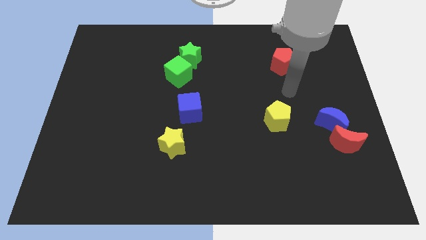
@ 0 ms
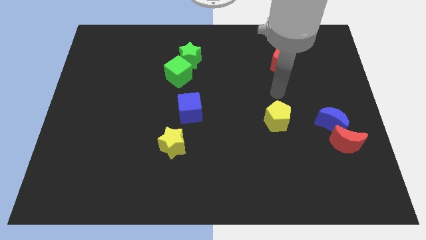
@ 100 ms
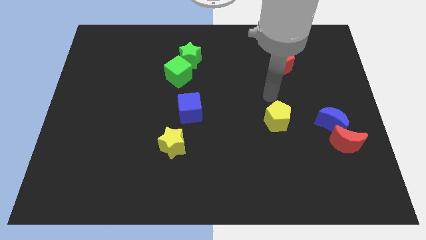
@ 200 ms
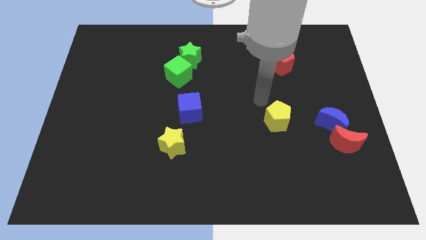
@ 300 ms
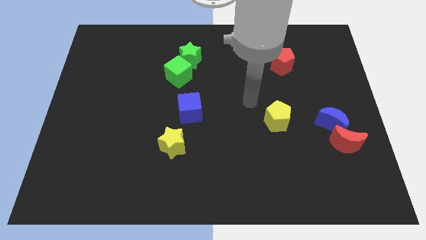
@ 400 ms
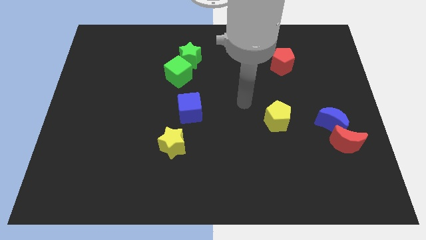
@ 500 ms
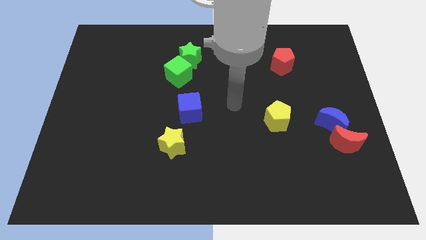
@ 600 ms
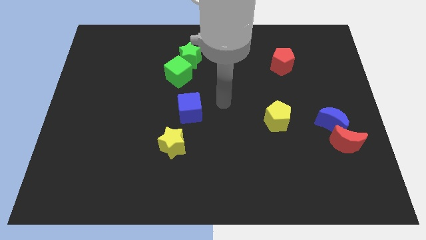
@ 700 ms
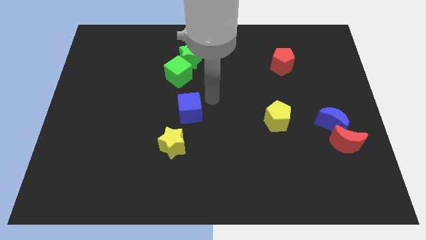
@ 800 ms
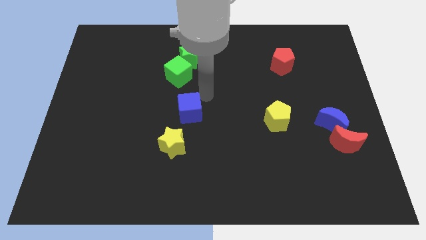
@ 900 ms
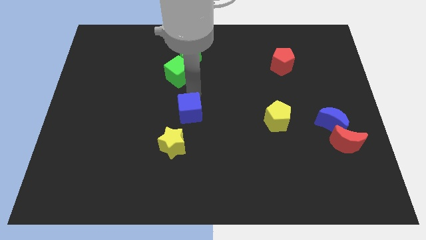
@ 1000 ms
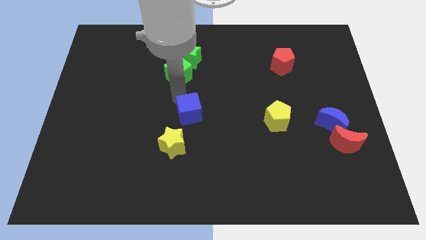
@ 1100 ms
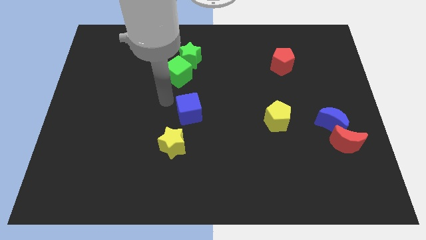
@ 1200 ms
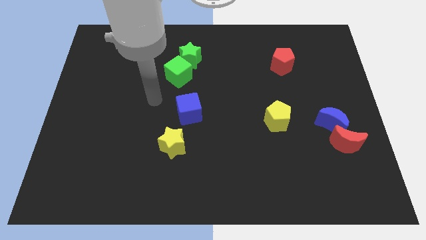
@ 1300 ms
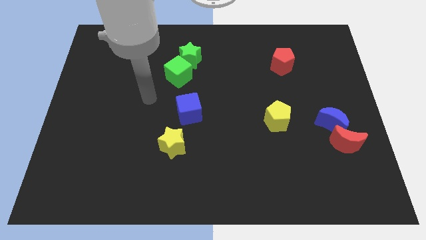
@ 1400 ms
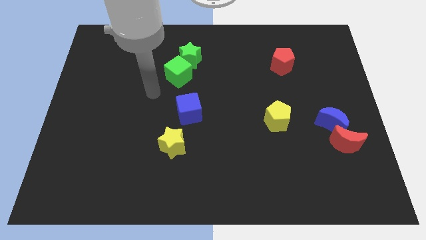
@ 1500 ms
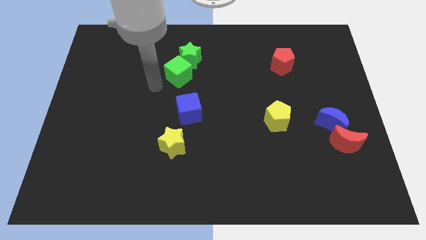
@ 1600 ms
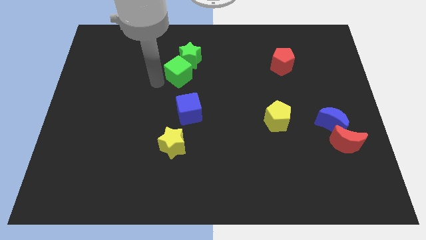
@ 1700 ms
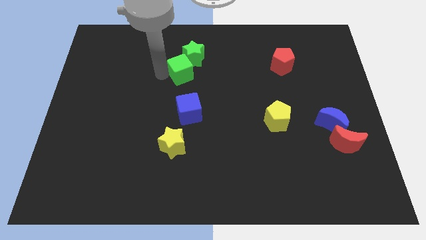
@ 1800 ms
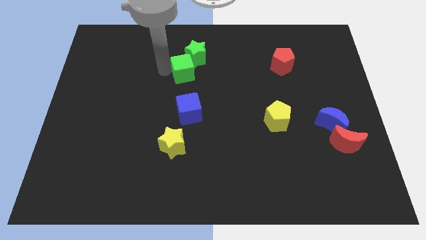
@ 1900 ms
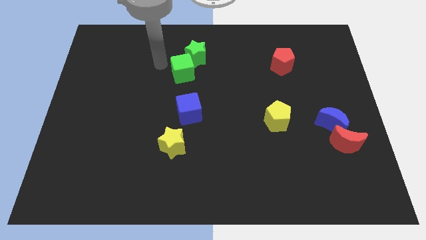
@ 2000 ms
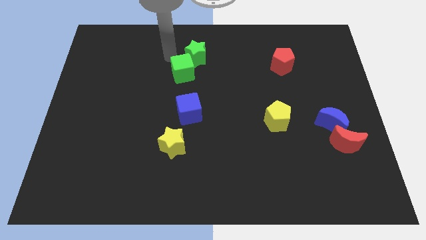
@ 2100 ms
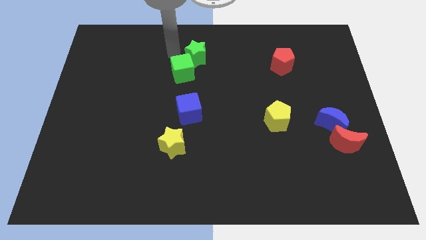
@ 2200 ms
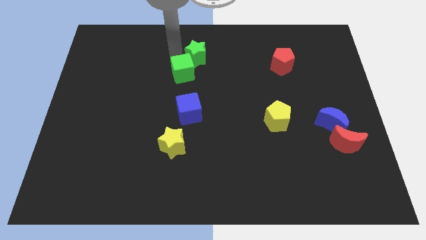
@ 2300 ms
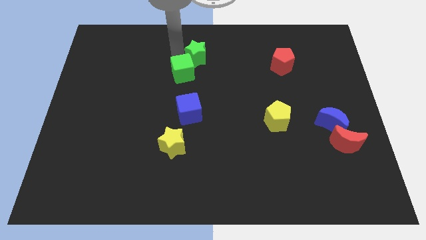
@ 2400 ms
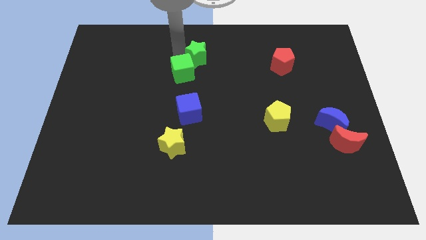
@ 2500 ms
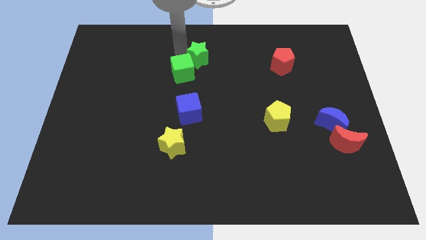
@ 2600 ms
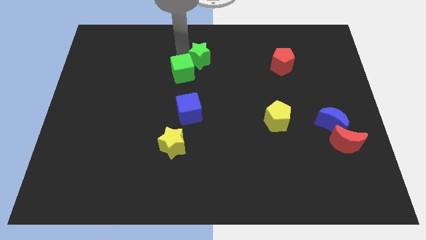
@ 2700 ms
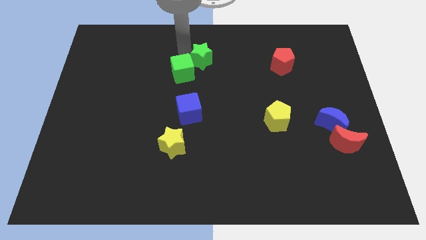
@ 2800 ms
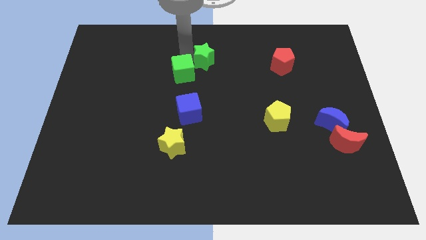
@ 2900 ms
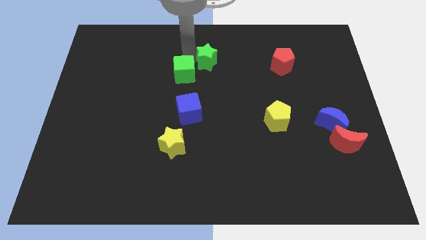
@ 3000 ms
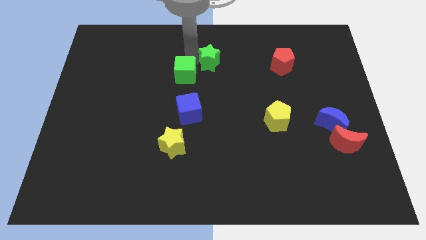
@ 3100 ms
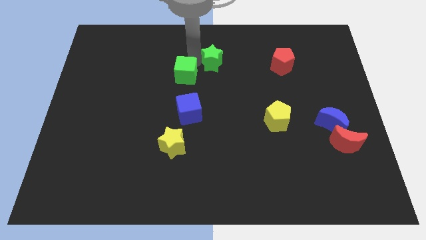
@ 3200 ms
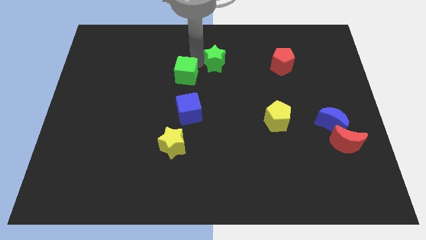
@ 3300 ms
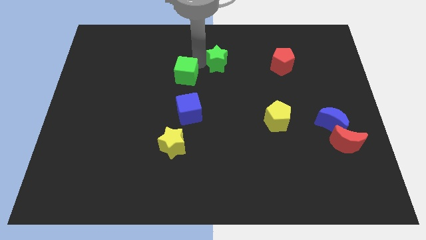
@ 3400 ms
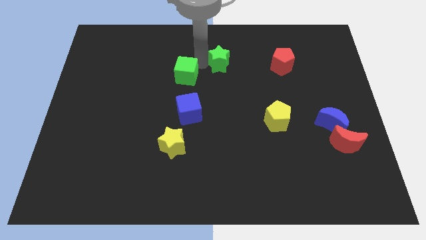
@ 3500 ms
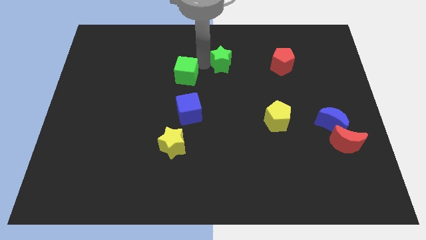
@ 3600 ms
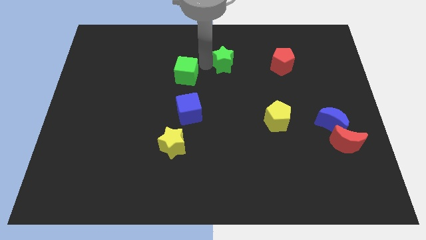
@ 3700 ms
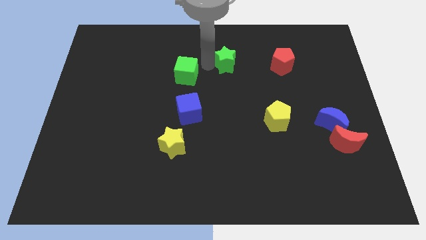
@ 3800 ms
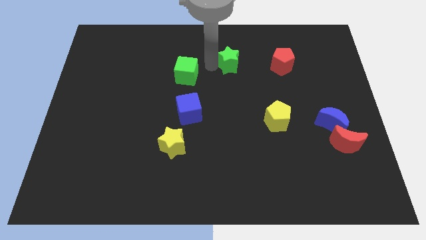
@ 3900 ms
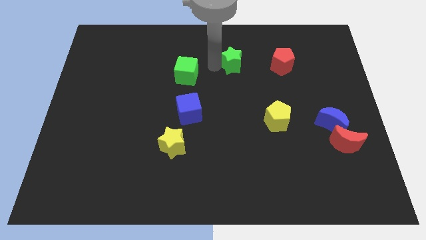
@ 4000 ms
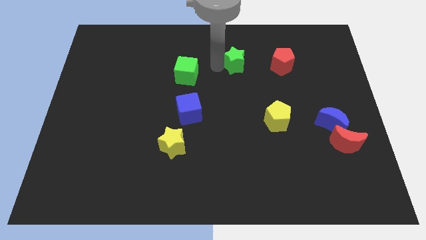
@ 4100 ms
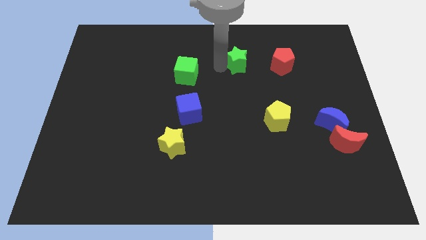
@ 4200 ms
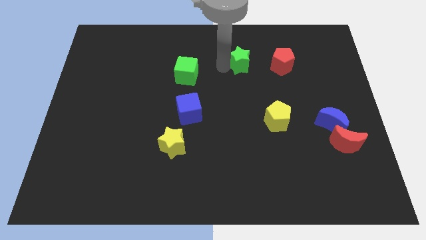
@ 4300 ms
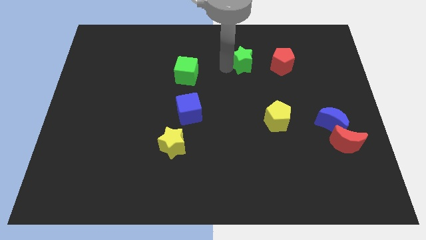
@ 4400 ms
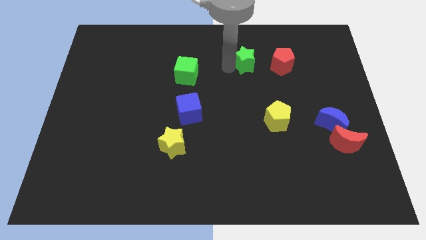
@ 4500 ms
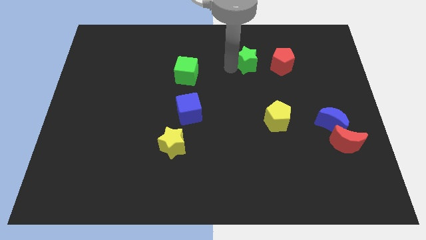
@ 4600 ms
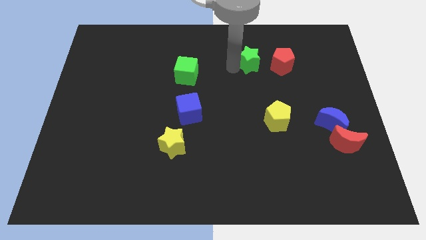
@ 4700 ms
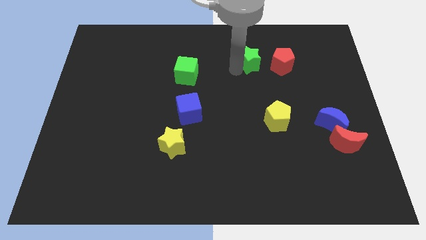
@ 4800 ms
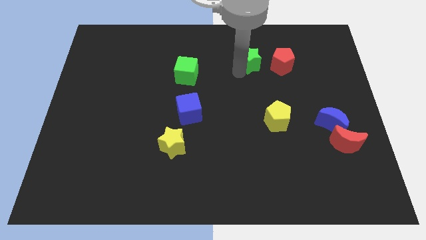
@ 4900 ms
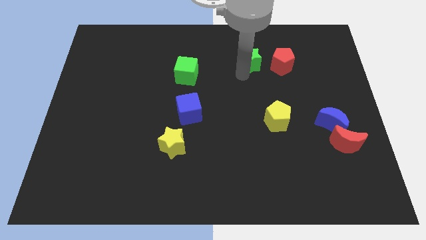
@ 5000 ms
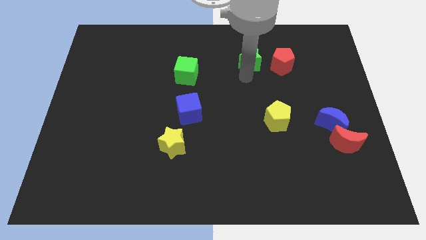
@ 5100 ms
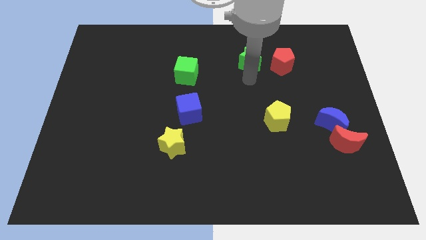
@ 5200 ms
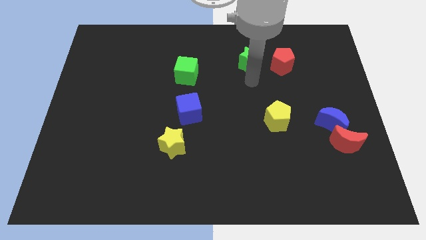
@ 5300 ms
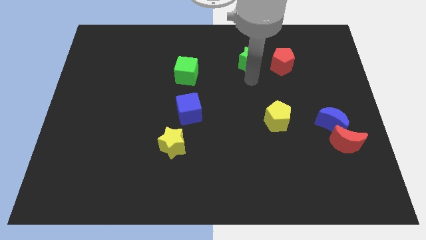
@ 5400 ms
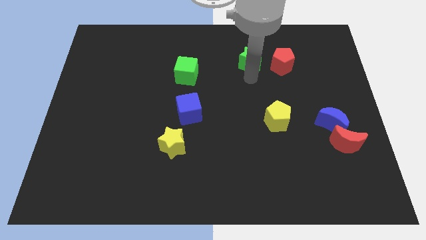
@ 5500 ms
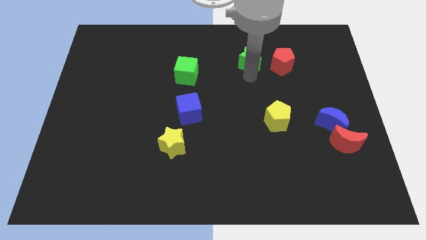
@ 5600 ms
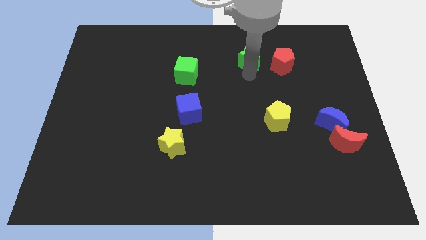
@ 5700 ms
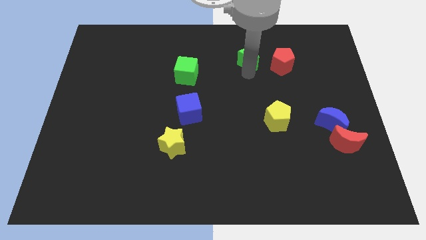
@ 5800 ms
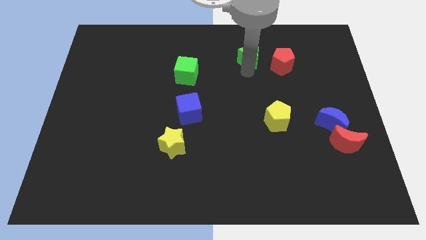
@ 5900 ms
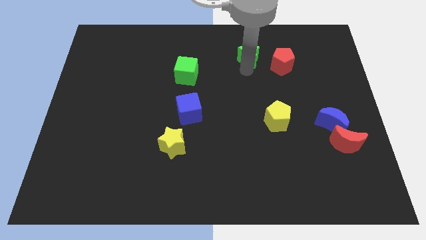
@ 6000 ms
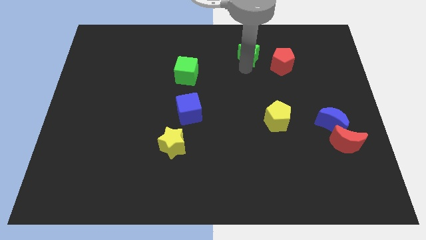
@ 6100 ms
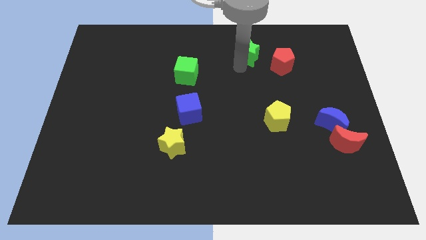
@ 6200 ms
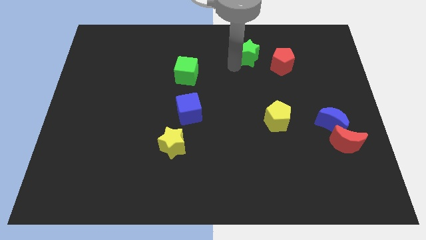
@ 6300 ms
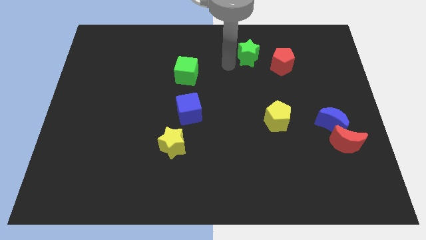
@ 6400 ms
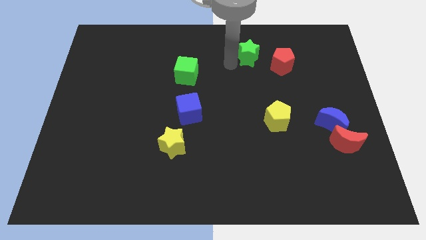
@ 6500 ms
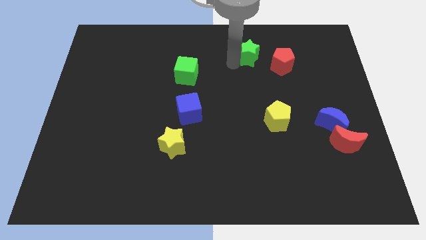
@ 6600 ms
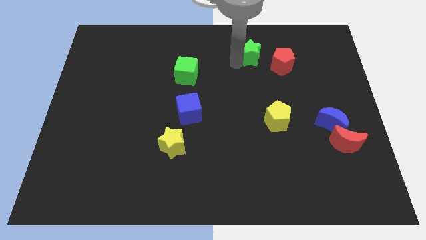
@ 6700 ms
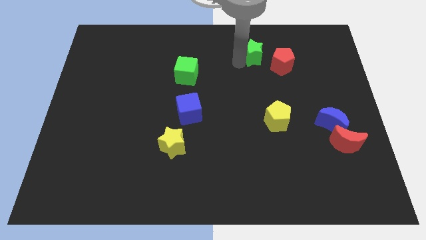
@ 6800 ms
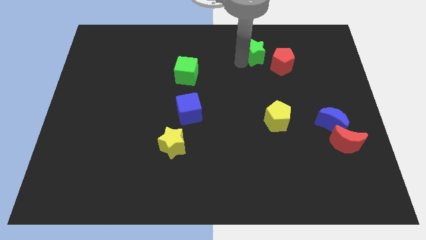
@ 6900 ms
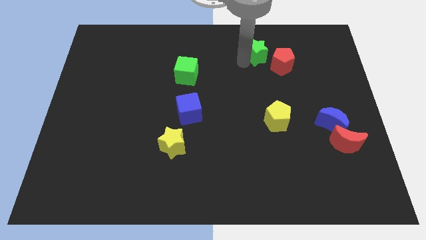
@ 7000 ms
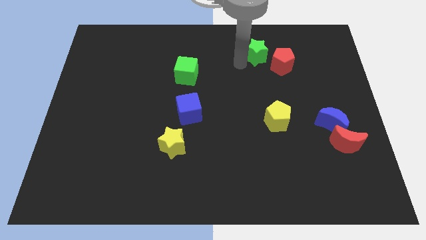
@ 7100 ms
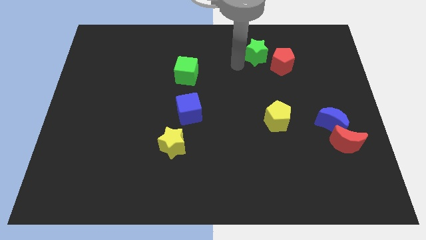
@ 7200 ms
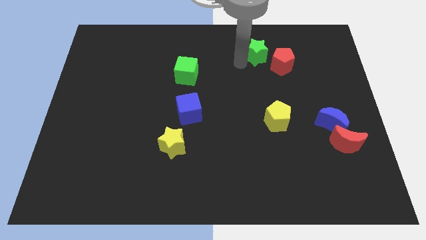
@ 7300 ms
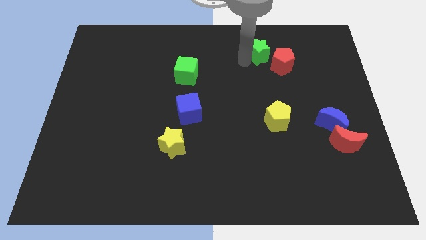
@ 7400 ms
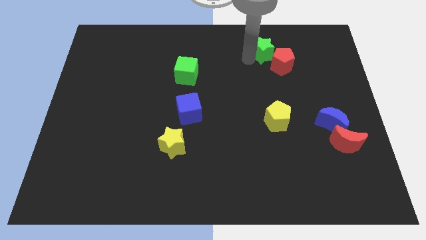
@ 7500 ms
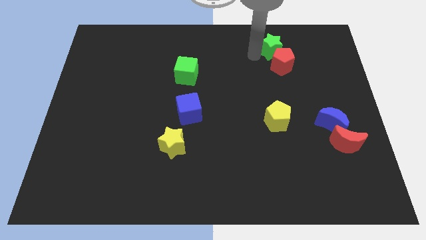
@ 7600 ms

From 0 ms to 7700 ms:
push the green star right

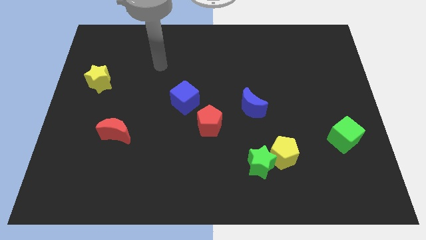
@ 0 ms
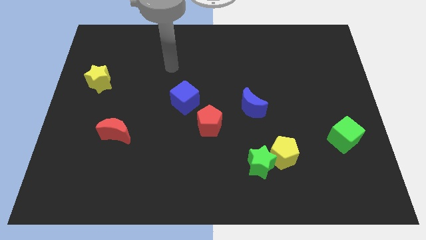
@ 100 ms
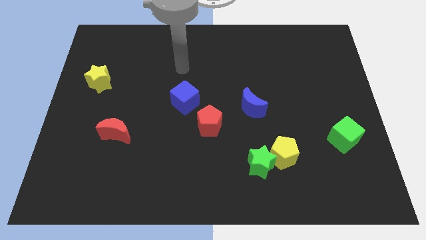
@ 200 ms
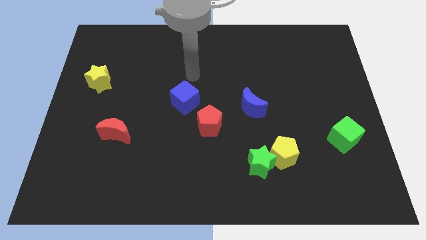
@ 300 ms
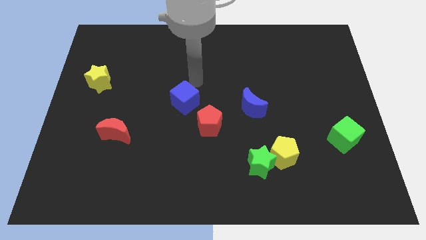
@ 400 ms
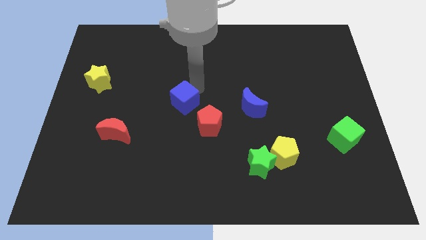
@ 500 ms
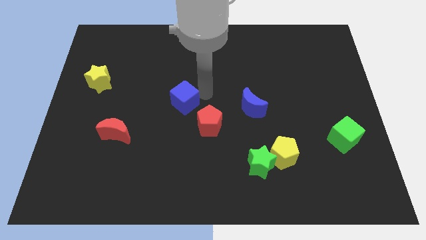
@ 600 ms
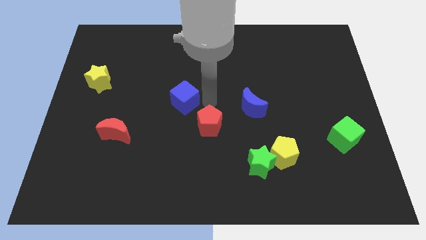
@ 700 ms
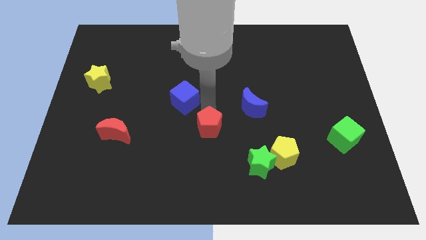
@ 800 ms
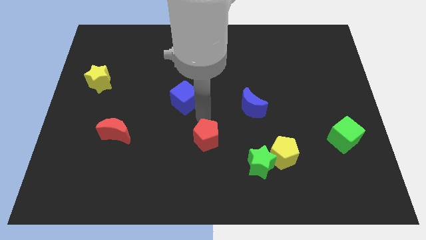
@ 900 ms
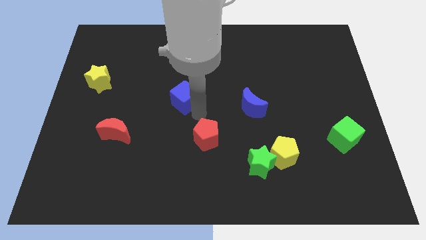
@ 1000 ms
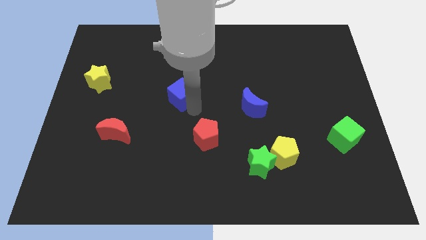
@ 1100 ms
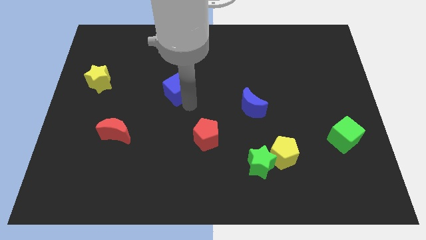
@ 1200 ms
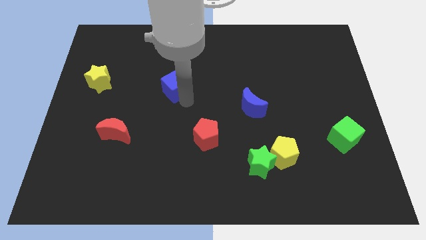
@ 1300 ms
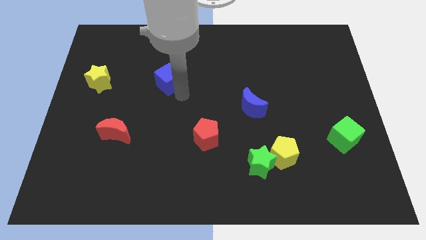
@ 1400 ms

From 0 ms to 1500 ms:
slide the blue cube somewhat up and then to the left
